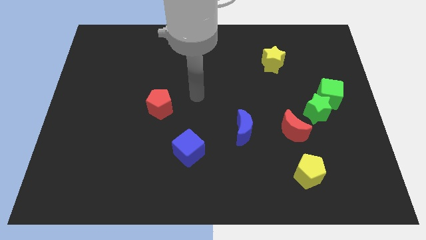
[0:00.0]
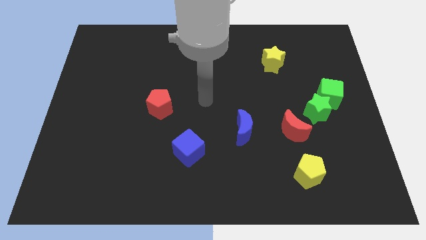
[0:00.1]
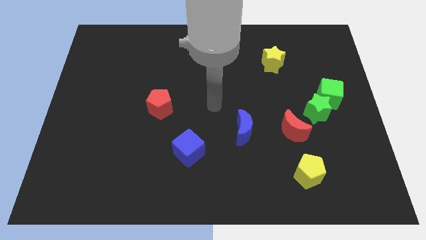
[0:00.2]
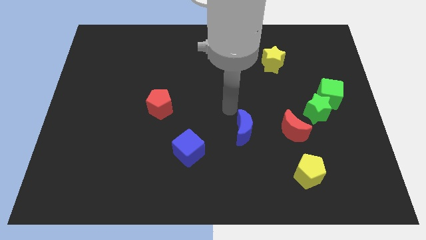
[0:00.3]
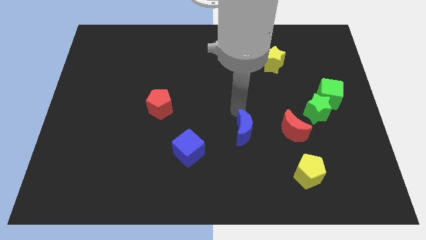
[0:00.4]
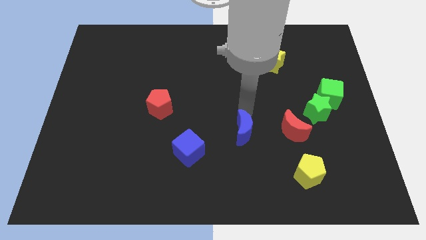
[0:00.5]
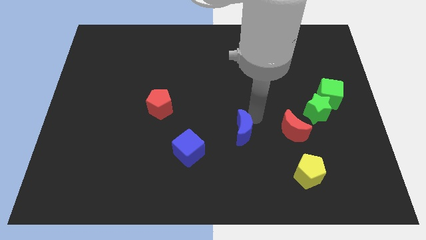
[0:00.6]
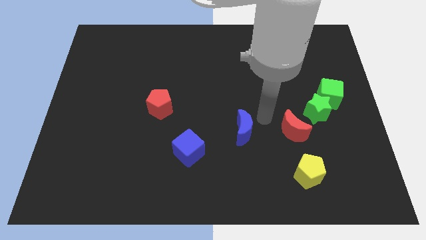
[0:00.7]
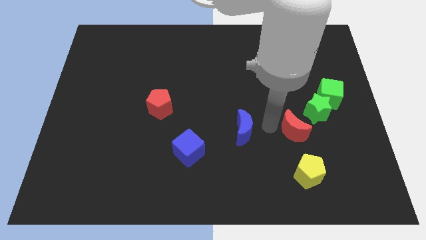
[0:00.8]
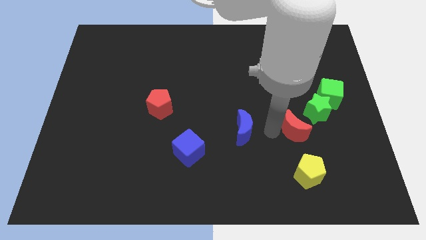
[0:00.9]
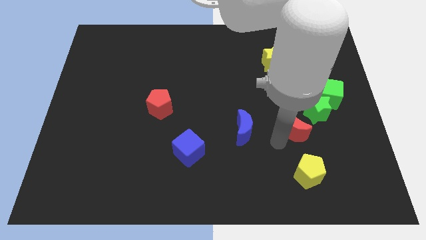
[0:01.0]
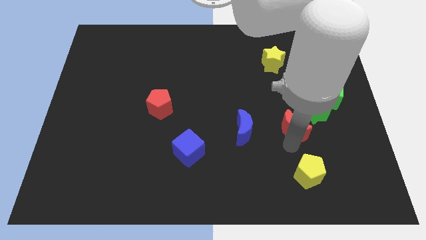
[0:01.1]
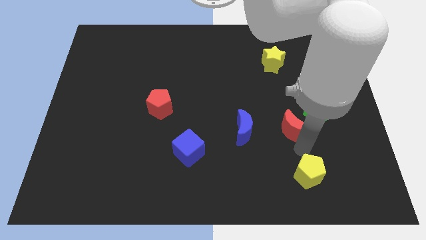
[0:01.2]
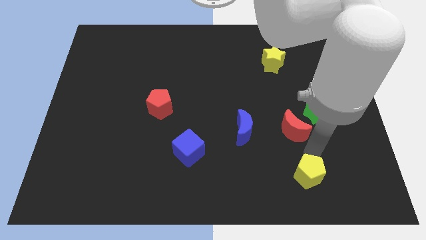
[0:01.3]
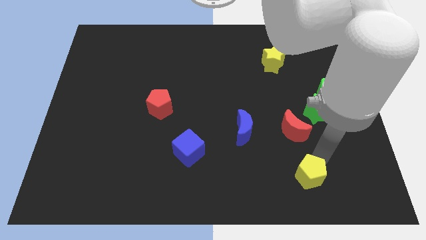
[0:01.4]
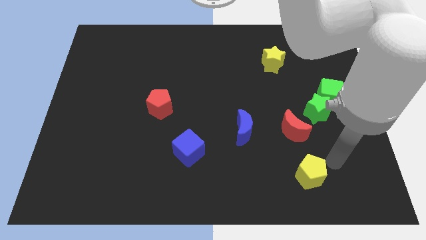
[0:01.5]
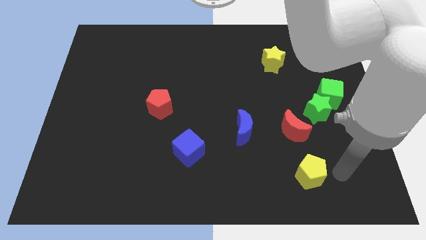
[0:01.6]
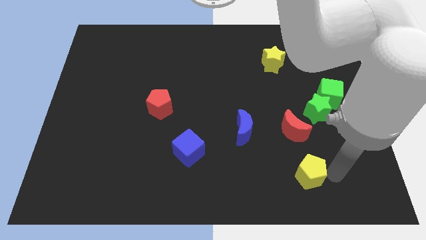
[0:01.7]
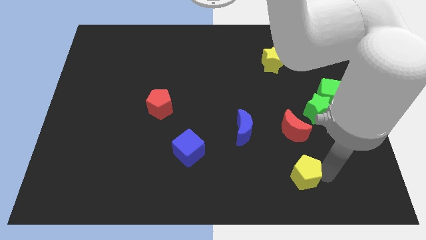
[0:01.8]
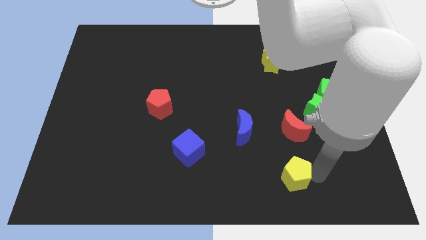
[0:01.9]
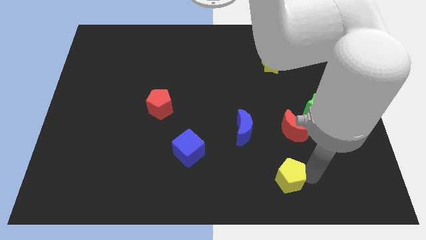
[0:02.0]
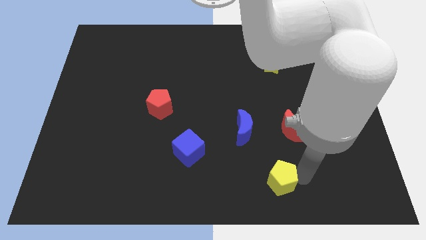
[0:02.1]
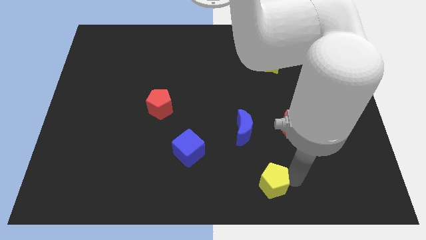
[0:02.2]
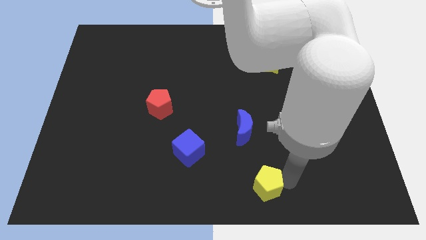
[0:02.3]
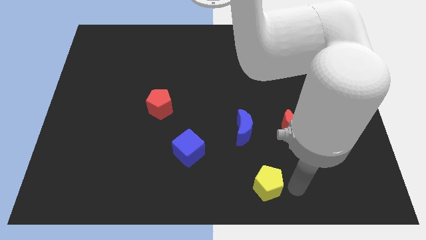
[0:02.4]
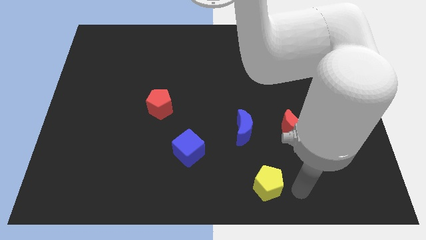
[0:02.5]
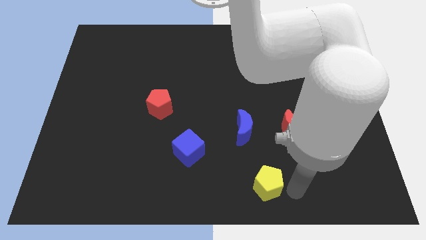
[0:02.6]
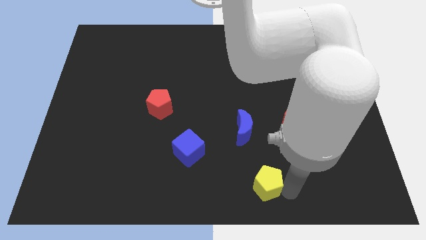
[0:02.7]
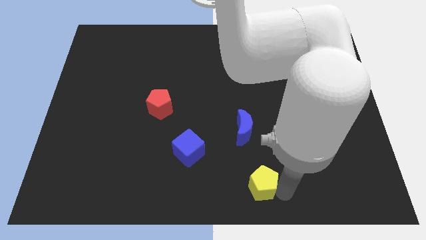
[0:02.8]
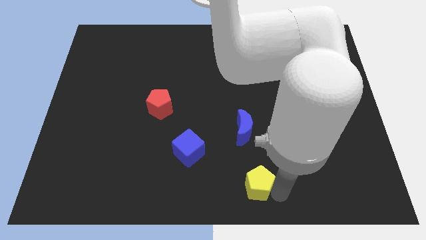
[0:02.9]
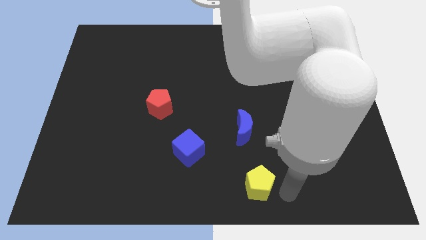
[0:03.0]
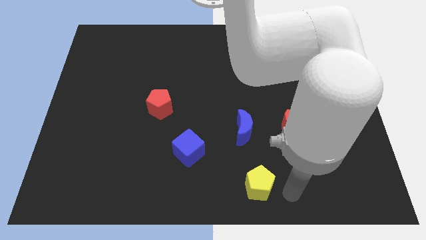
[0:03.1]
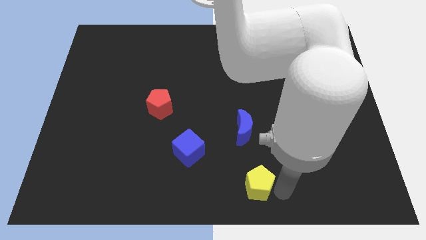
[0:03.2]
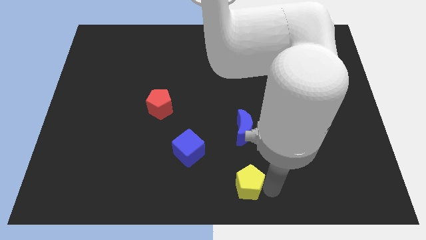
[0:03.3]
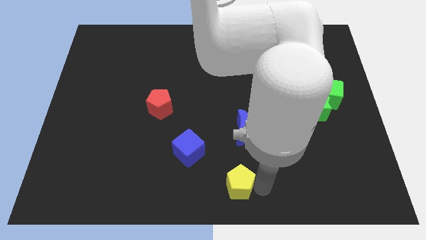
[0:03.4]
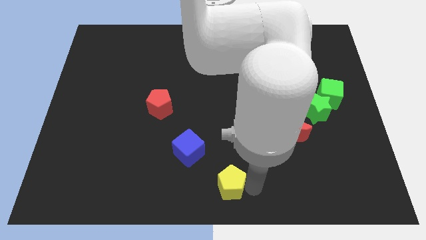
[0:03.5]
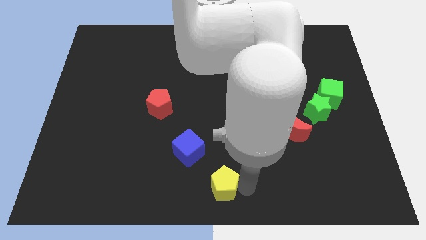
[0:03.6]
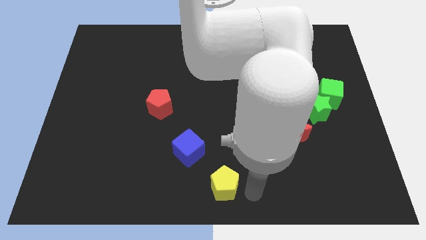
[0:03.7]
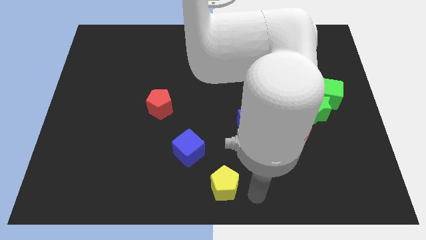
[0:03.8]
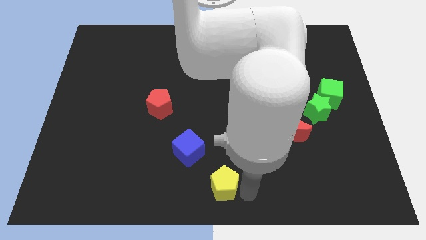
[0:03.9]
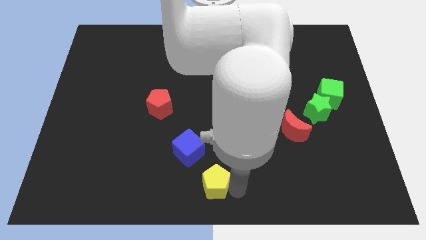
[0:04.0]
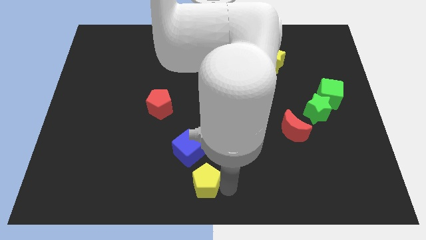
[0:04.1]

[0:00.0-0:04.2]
push the yellow pentagon left

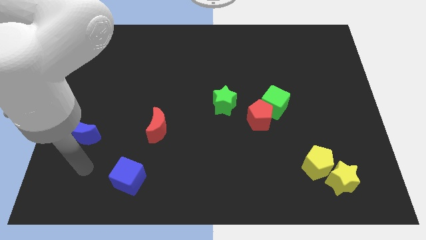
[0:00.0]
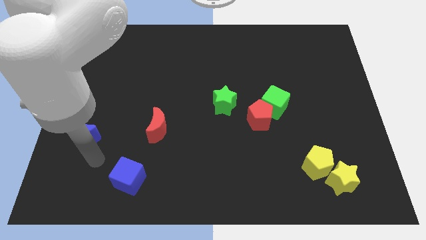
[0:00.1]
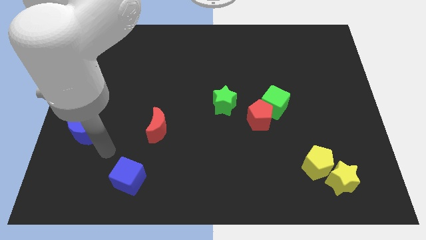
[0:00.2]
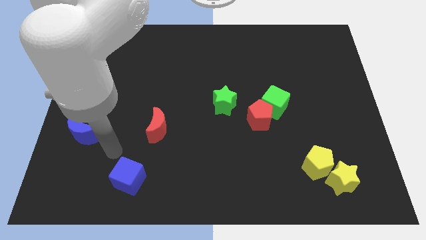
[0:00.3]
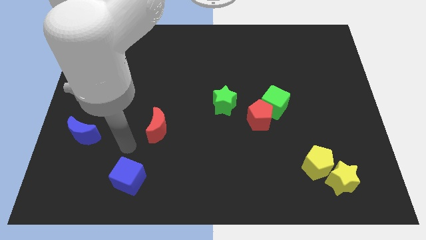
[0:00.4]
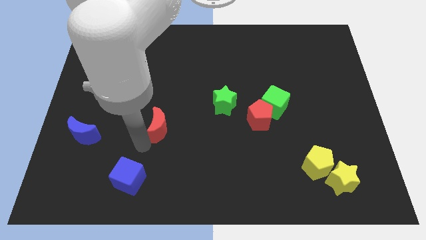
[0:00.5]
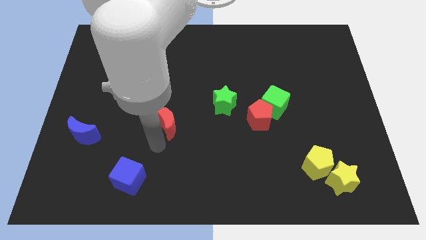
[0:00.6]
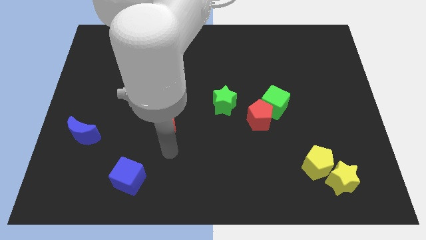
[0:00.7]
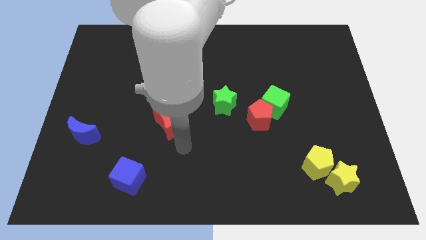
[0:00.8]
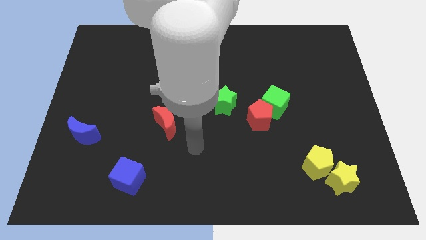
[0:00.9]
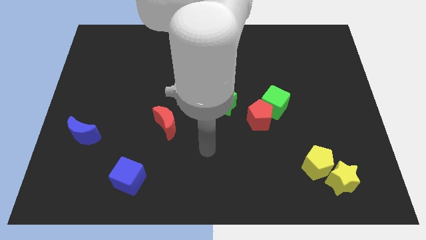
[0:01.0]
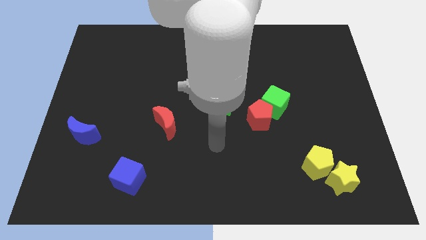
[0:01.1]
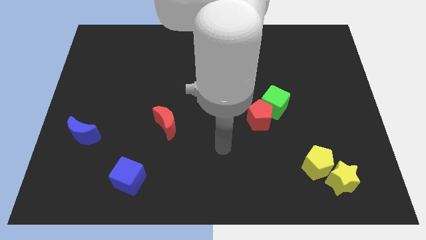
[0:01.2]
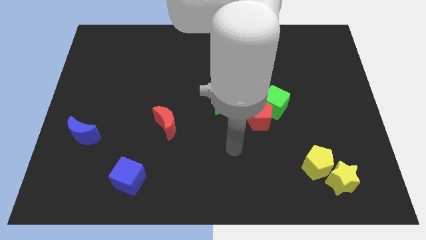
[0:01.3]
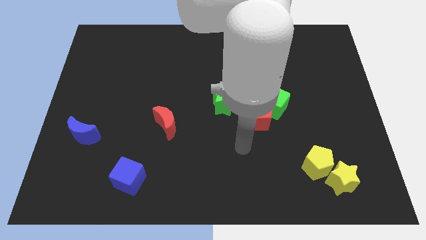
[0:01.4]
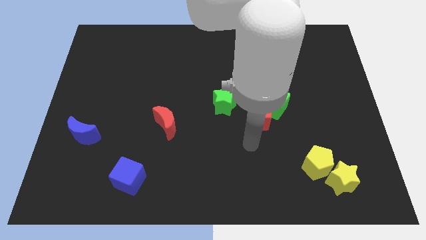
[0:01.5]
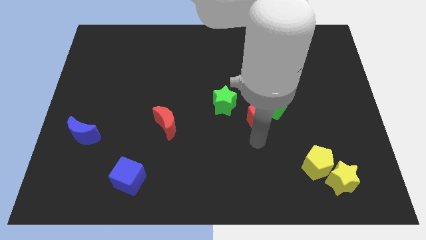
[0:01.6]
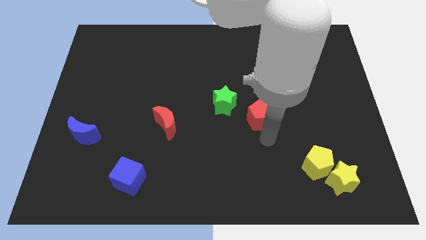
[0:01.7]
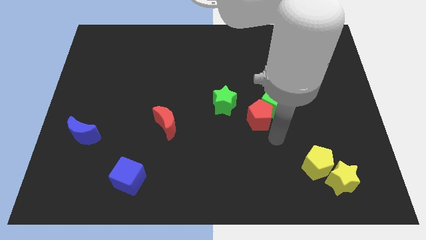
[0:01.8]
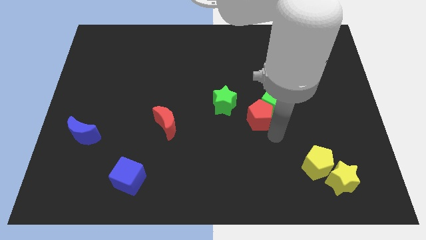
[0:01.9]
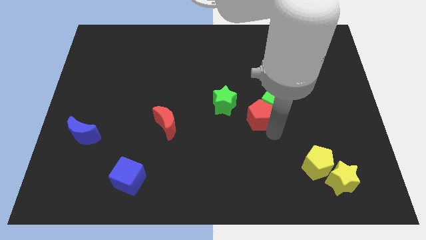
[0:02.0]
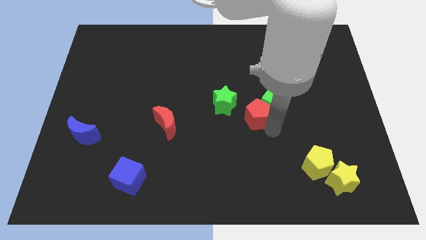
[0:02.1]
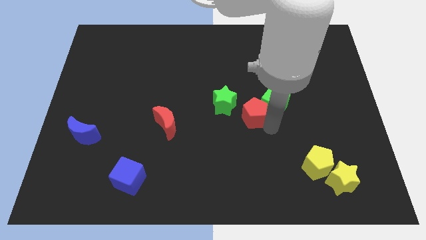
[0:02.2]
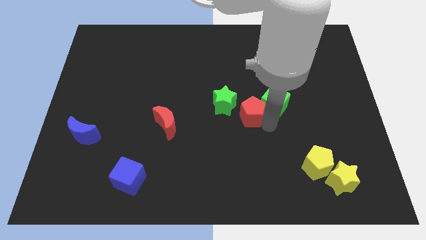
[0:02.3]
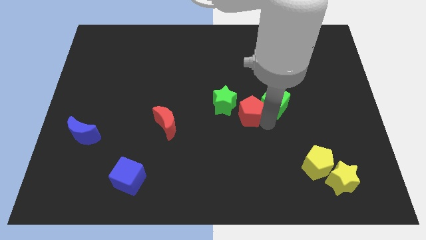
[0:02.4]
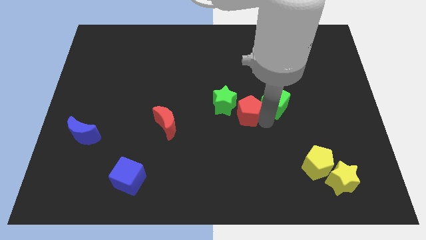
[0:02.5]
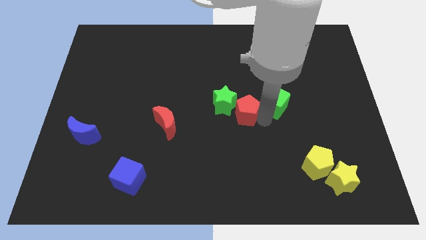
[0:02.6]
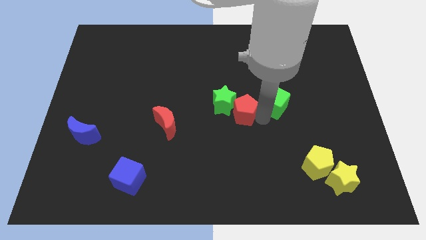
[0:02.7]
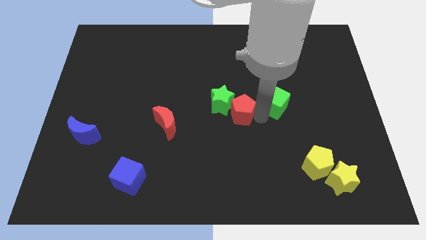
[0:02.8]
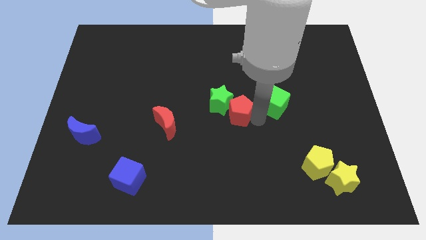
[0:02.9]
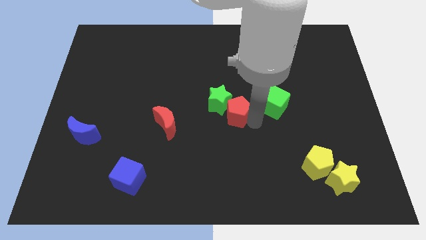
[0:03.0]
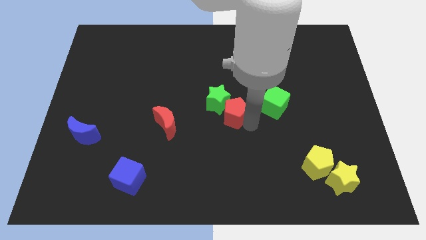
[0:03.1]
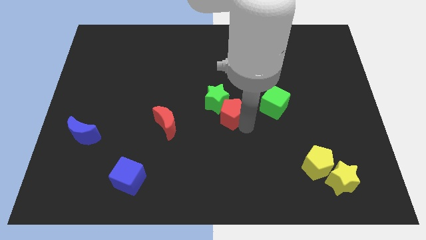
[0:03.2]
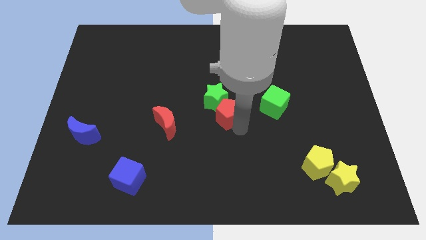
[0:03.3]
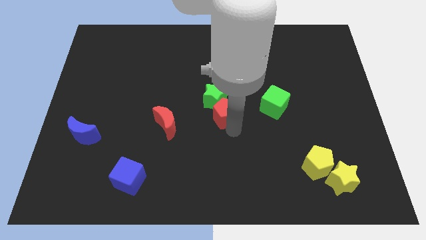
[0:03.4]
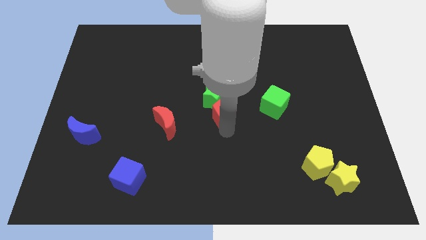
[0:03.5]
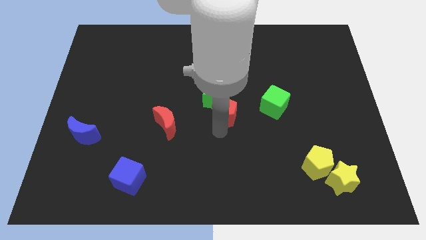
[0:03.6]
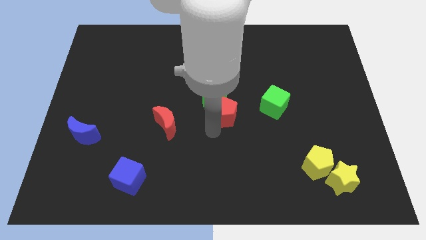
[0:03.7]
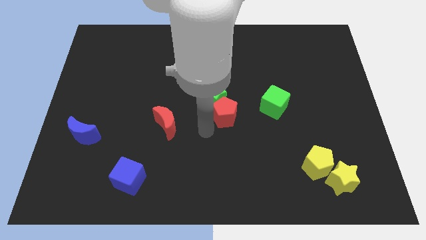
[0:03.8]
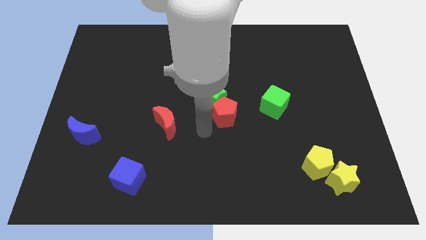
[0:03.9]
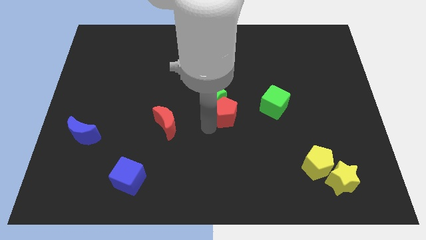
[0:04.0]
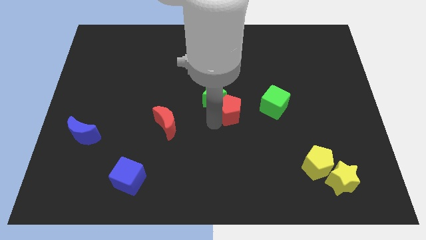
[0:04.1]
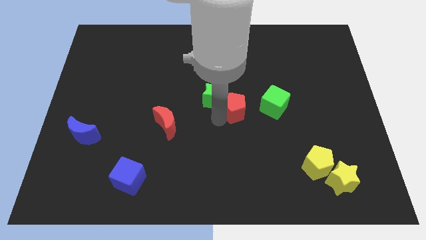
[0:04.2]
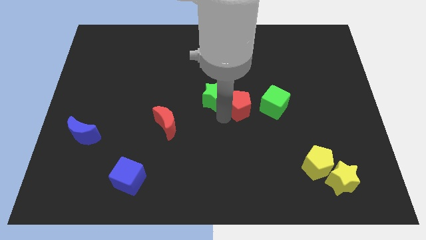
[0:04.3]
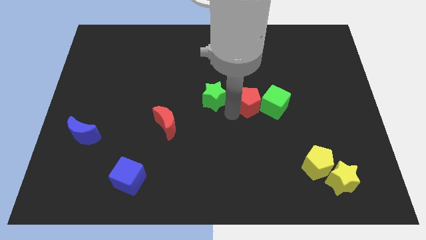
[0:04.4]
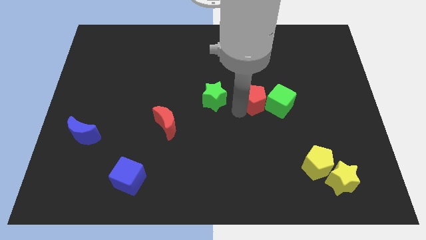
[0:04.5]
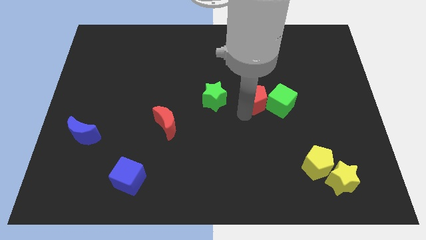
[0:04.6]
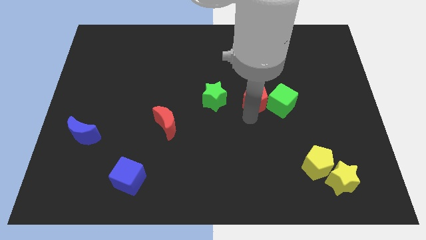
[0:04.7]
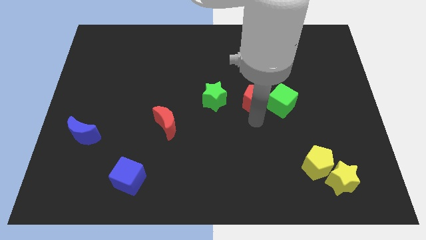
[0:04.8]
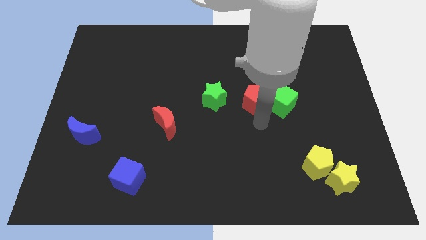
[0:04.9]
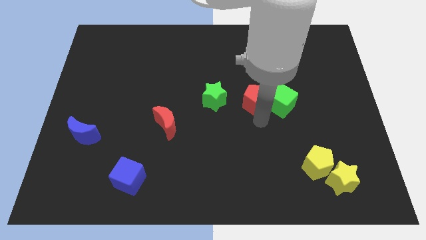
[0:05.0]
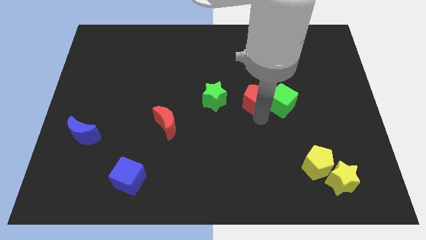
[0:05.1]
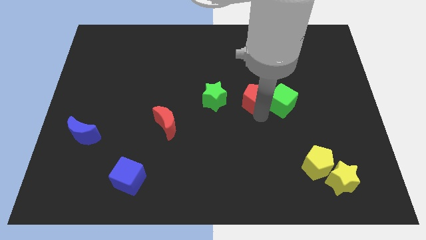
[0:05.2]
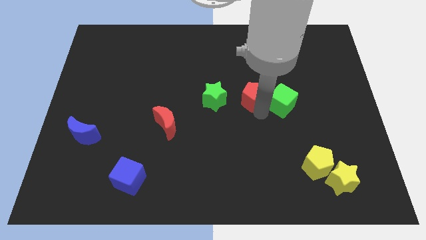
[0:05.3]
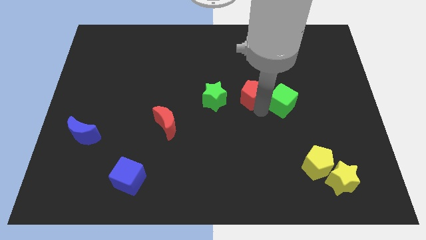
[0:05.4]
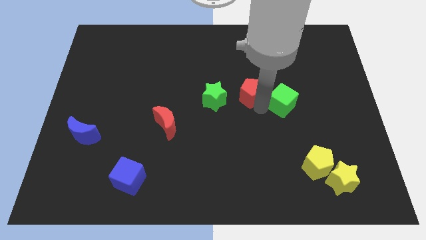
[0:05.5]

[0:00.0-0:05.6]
slightly slide the red pentagon upwards
